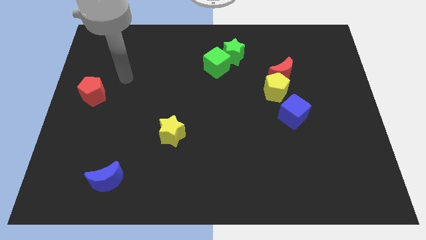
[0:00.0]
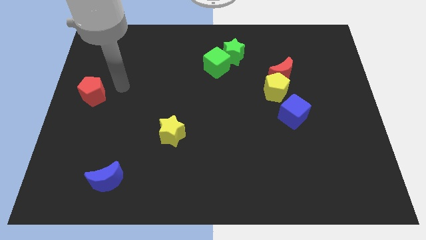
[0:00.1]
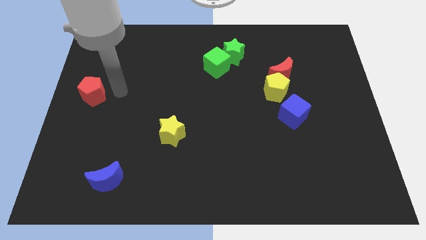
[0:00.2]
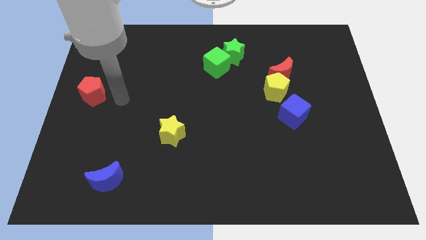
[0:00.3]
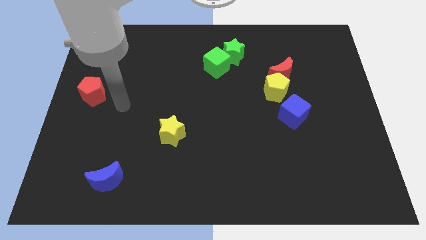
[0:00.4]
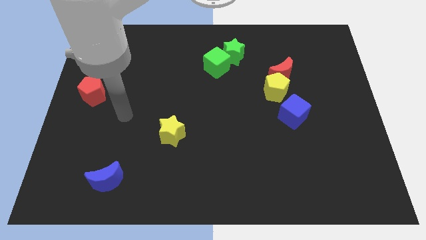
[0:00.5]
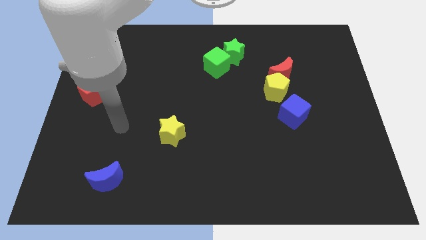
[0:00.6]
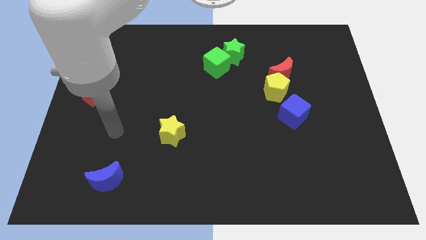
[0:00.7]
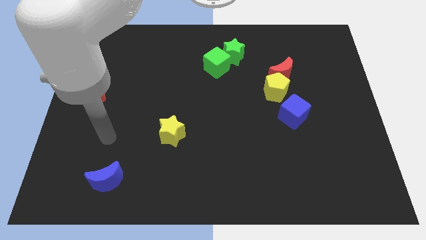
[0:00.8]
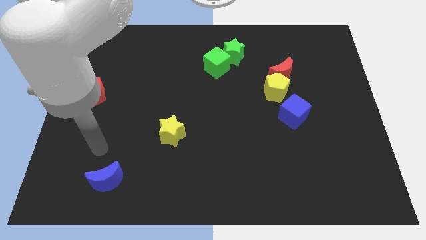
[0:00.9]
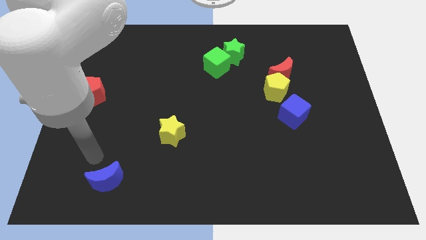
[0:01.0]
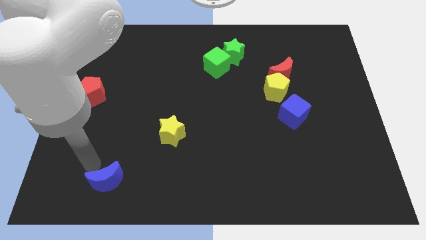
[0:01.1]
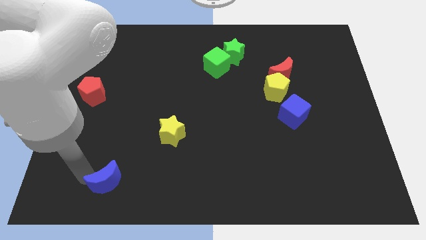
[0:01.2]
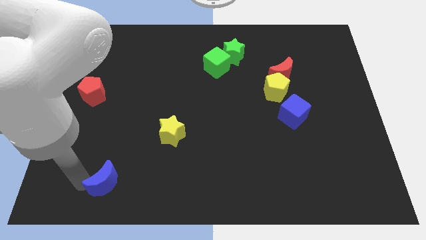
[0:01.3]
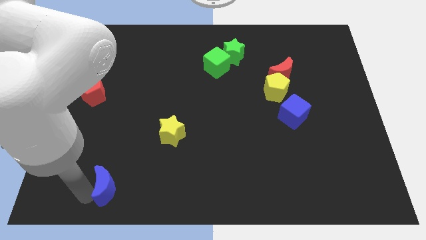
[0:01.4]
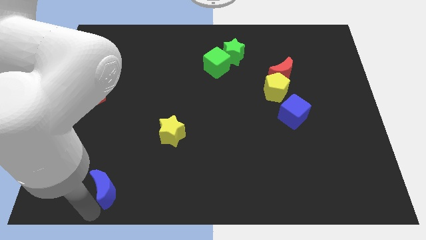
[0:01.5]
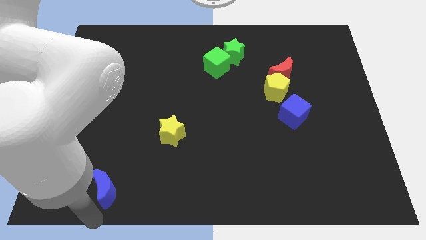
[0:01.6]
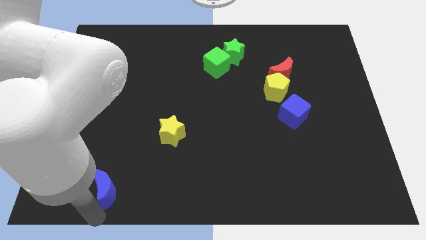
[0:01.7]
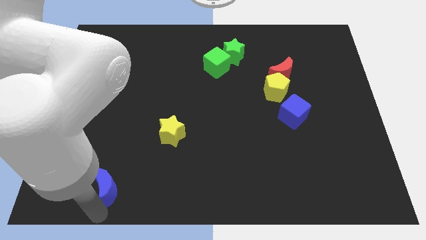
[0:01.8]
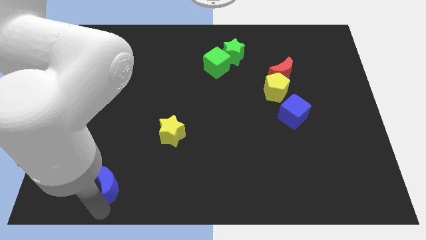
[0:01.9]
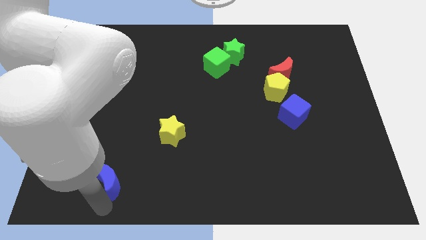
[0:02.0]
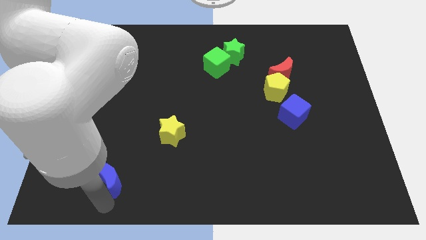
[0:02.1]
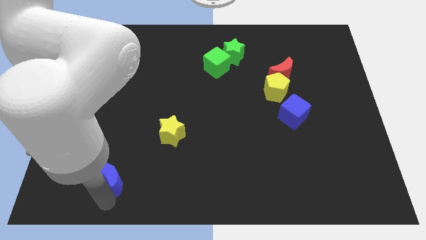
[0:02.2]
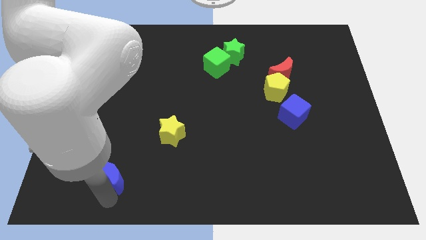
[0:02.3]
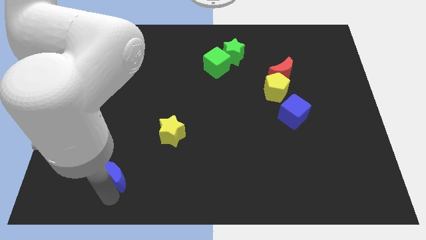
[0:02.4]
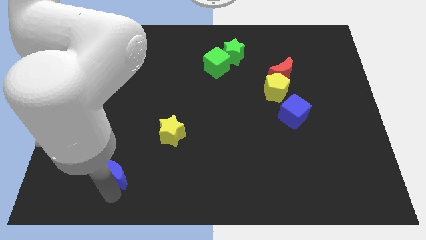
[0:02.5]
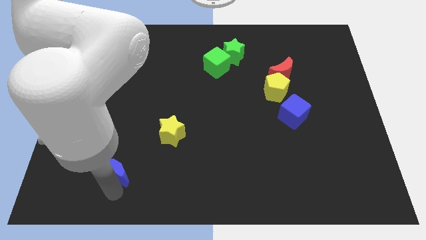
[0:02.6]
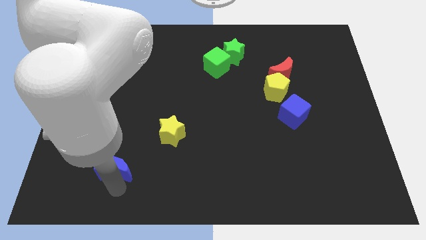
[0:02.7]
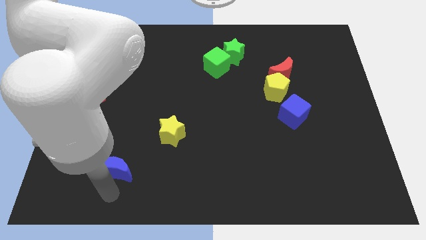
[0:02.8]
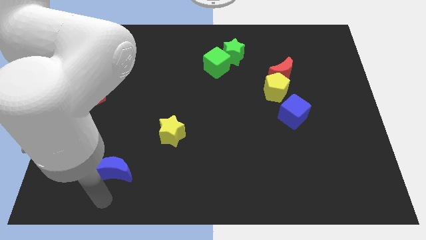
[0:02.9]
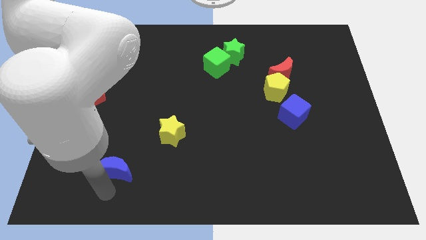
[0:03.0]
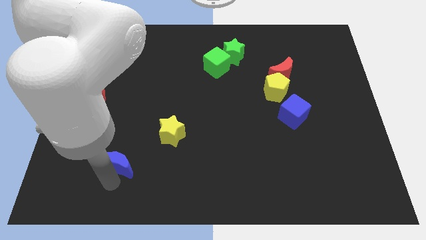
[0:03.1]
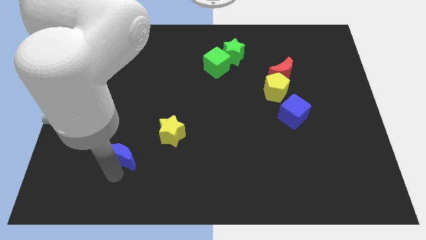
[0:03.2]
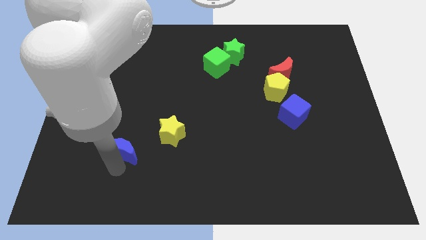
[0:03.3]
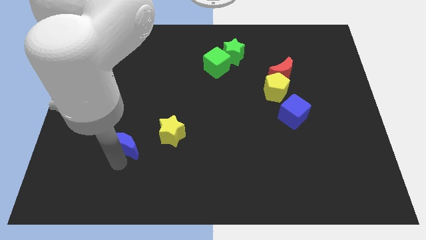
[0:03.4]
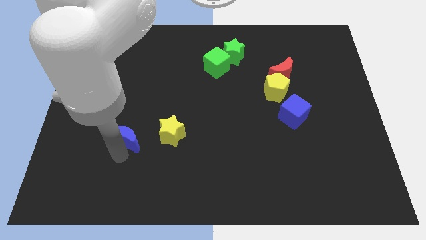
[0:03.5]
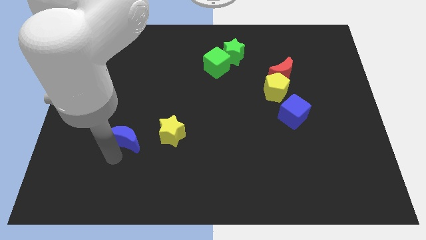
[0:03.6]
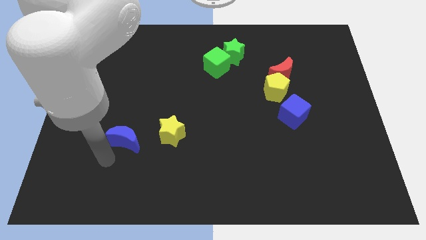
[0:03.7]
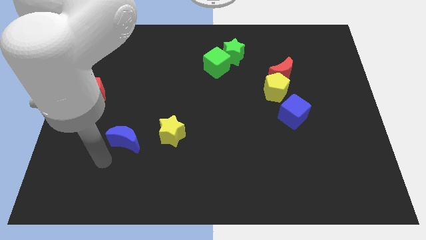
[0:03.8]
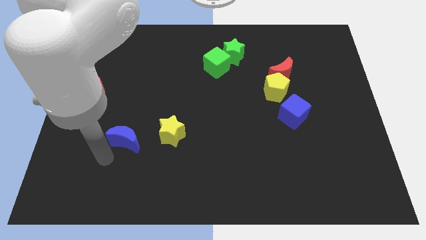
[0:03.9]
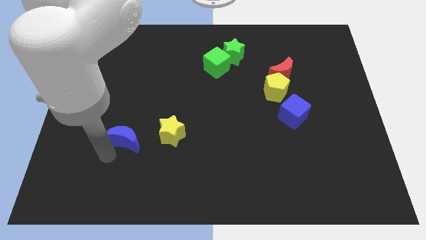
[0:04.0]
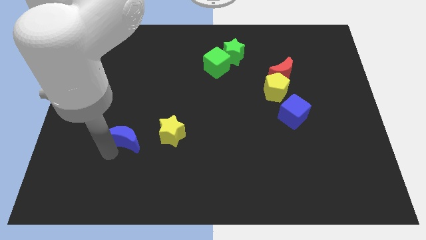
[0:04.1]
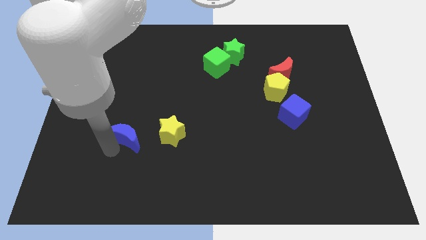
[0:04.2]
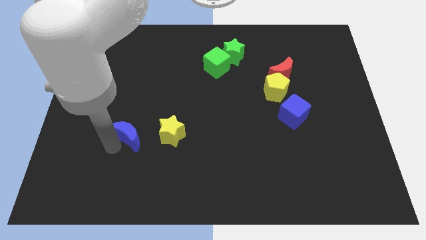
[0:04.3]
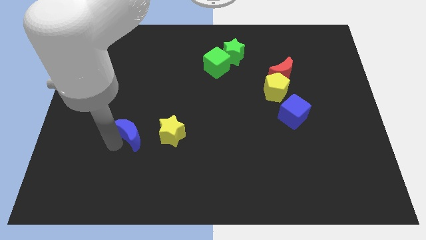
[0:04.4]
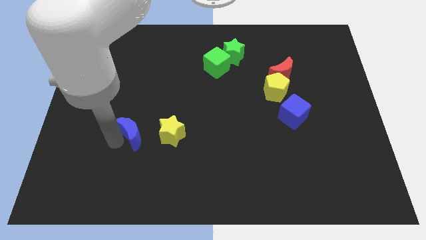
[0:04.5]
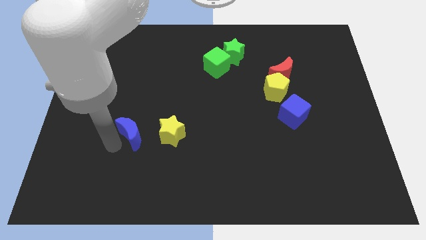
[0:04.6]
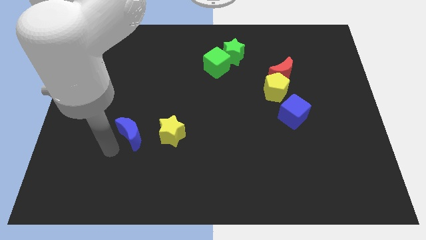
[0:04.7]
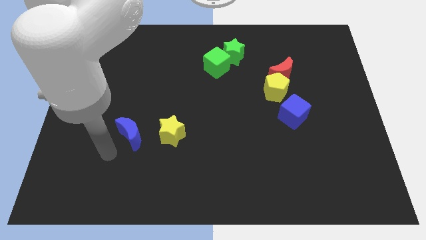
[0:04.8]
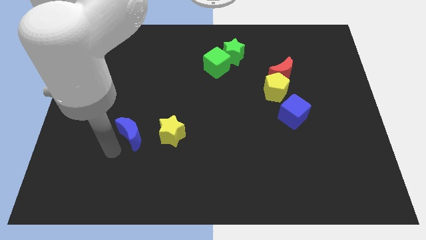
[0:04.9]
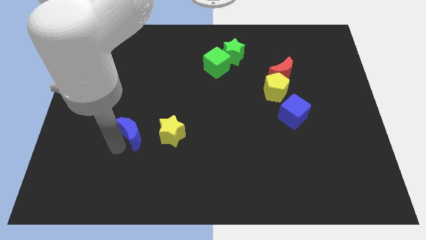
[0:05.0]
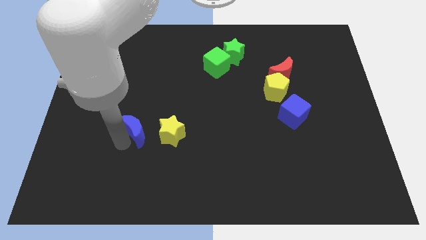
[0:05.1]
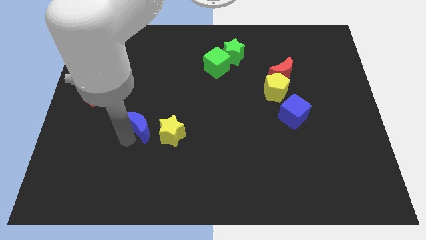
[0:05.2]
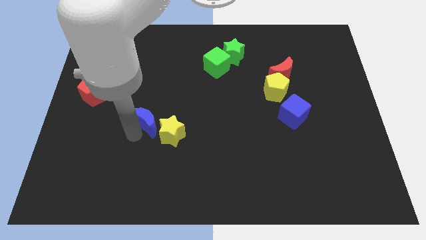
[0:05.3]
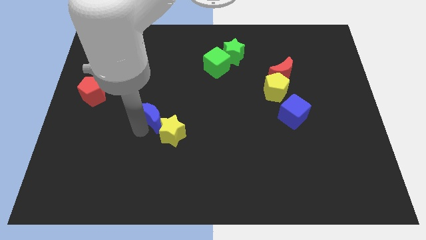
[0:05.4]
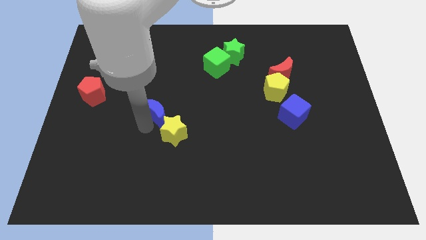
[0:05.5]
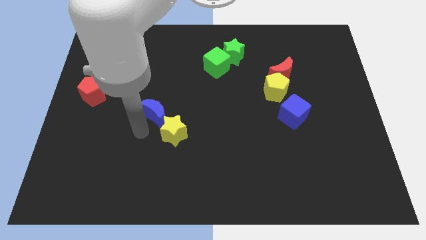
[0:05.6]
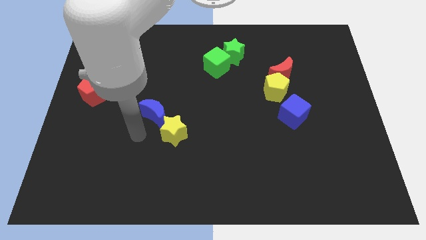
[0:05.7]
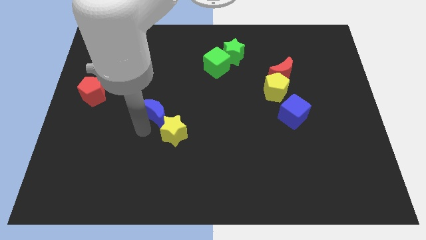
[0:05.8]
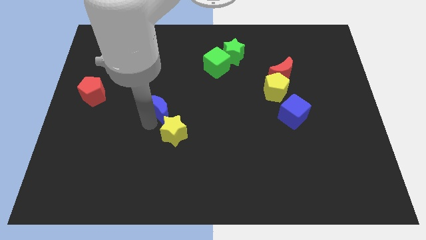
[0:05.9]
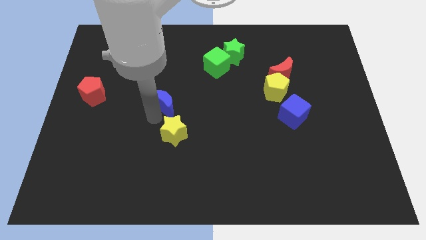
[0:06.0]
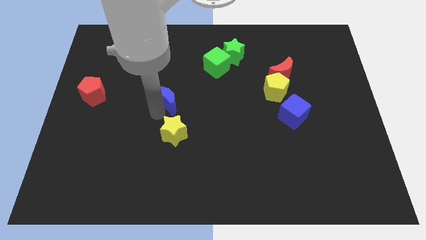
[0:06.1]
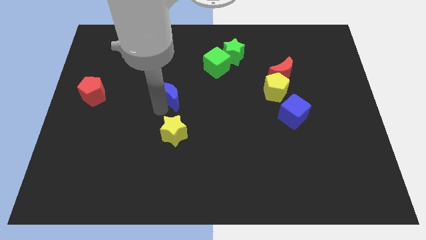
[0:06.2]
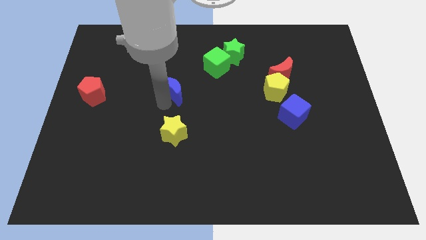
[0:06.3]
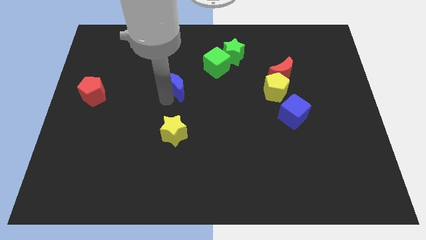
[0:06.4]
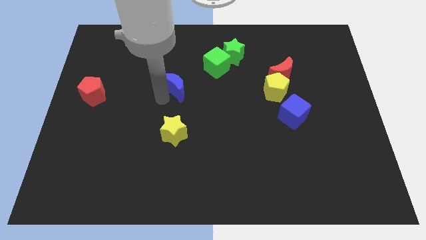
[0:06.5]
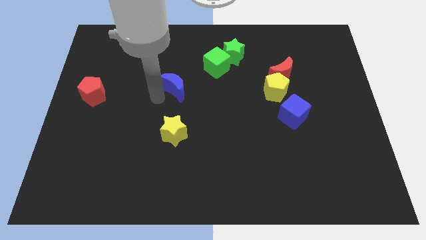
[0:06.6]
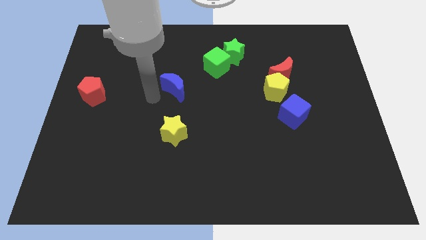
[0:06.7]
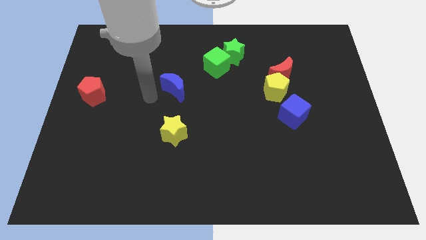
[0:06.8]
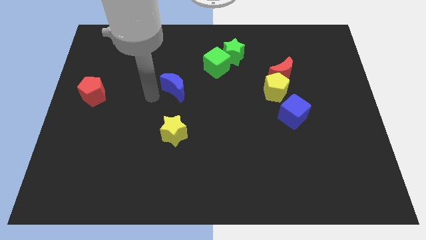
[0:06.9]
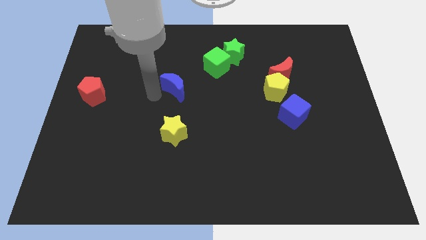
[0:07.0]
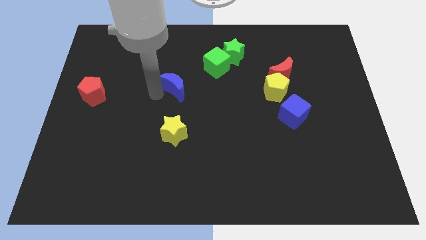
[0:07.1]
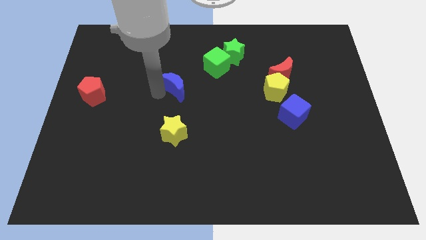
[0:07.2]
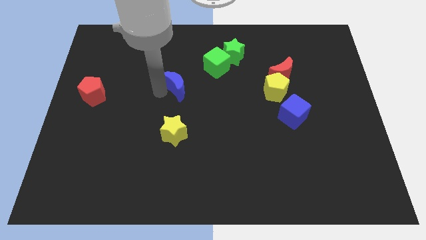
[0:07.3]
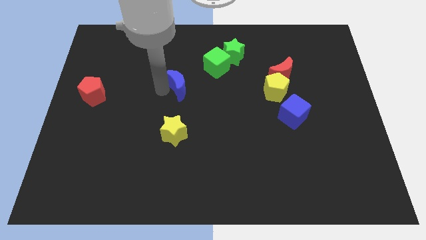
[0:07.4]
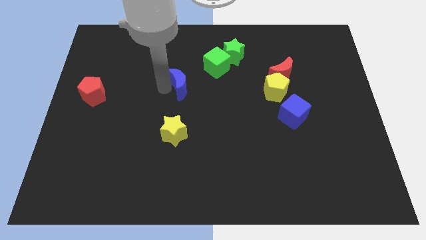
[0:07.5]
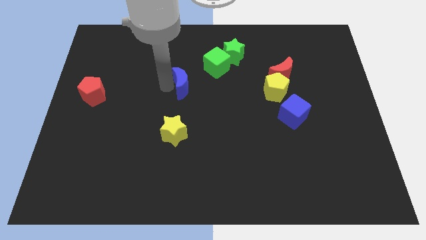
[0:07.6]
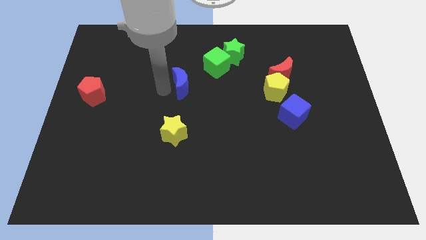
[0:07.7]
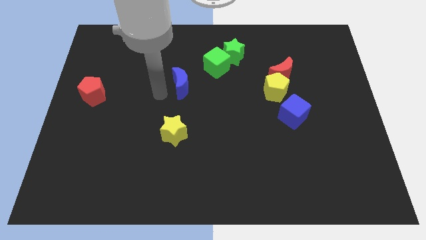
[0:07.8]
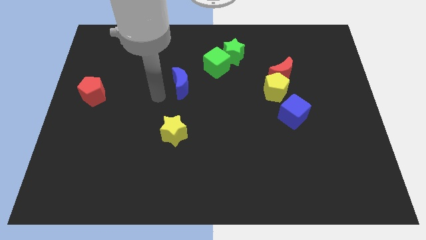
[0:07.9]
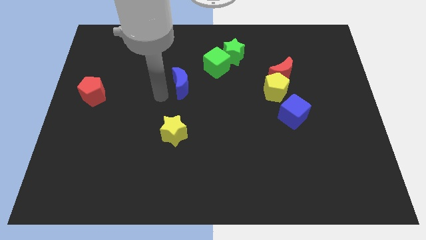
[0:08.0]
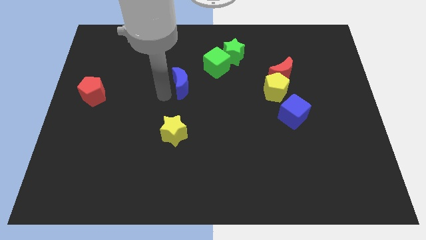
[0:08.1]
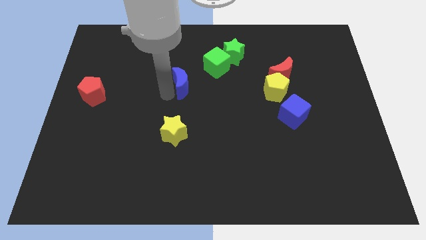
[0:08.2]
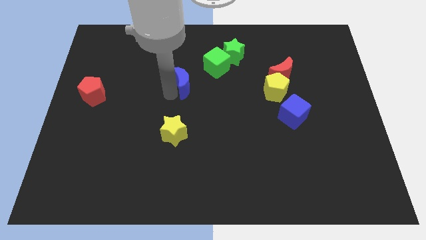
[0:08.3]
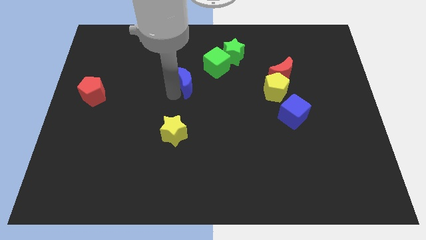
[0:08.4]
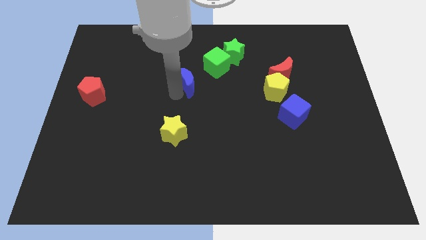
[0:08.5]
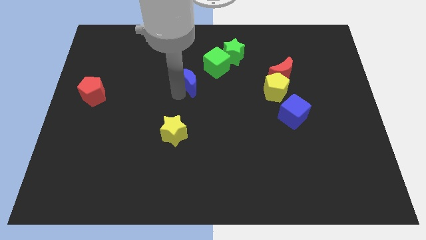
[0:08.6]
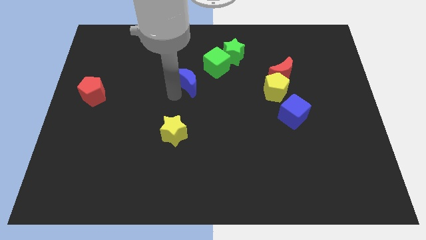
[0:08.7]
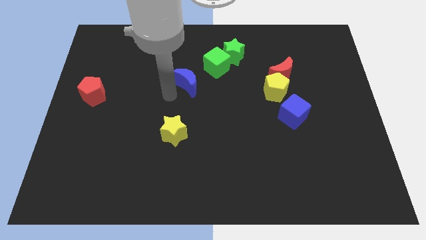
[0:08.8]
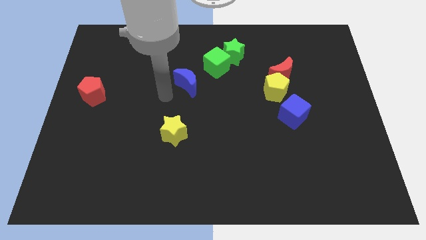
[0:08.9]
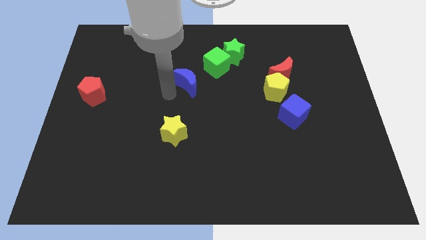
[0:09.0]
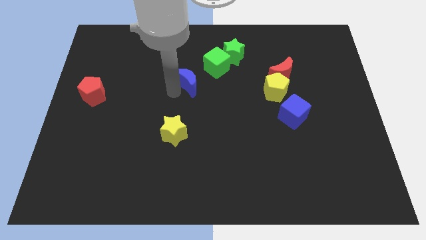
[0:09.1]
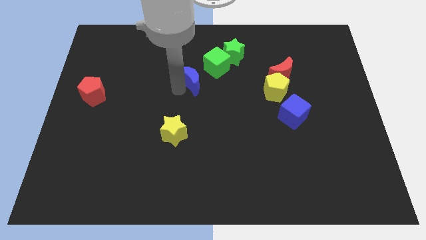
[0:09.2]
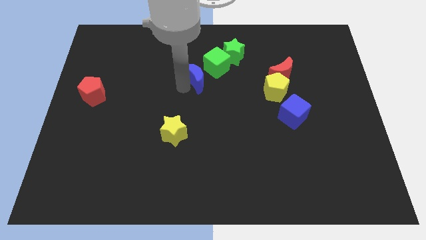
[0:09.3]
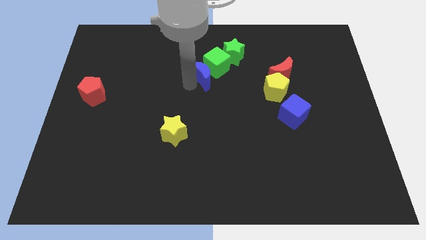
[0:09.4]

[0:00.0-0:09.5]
slide the blue moon next to the green cube
